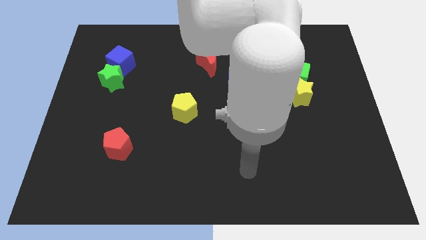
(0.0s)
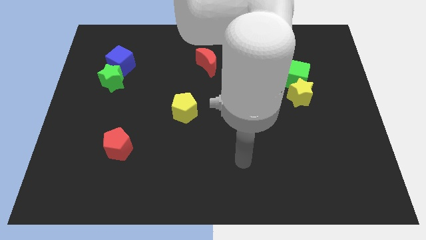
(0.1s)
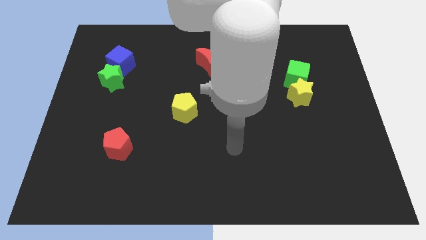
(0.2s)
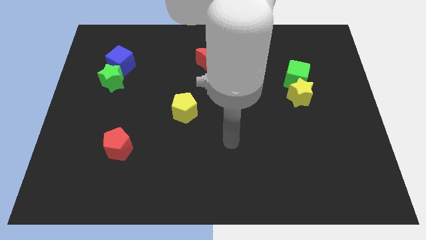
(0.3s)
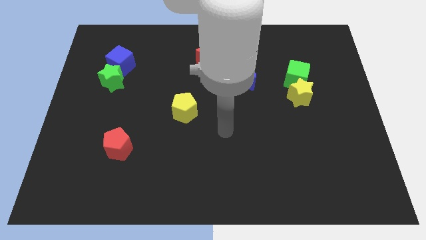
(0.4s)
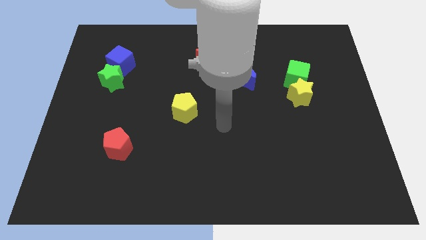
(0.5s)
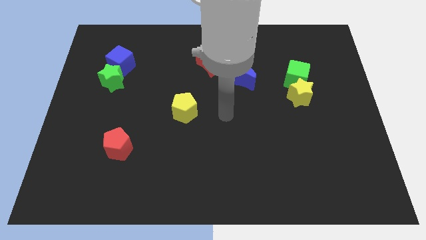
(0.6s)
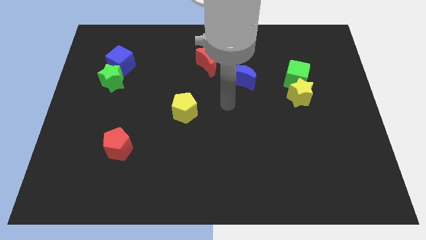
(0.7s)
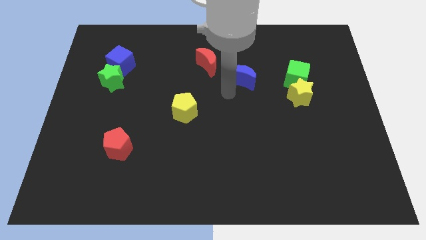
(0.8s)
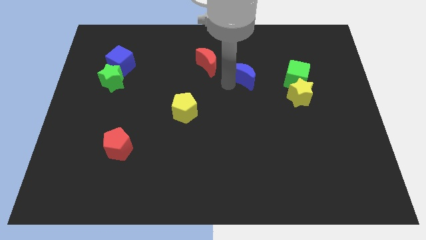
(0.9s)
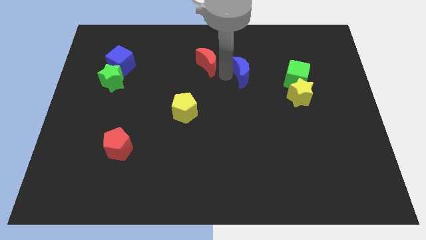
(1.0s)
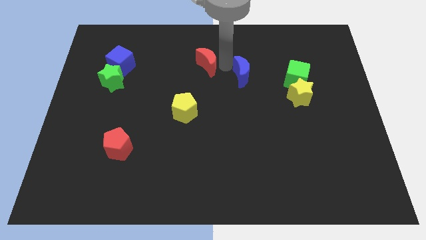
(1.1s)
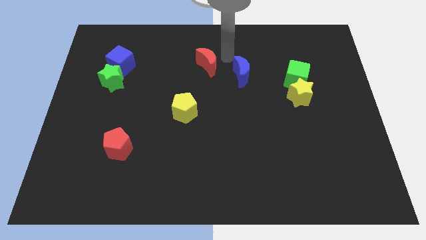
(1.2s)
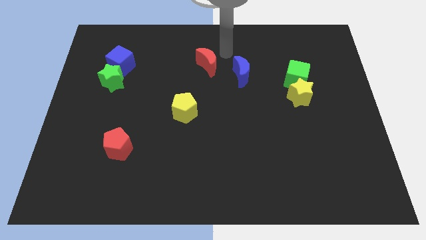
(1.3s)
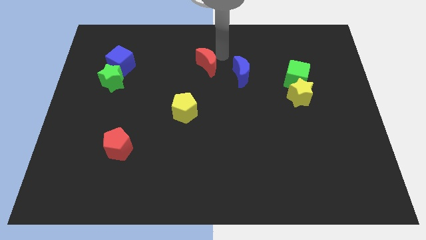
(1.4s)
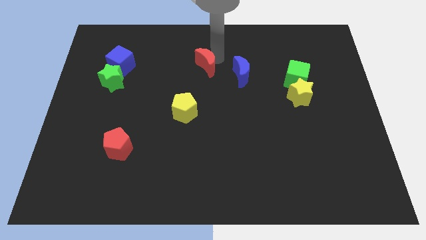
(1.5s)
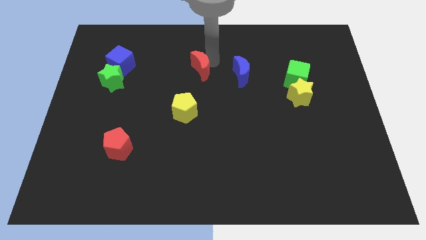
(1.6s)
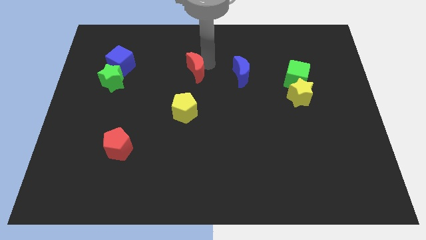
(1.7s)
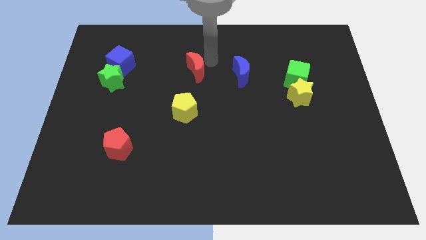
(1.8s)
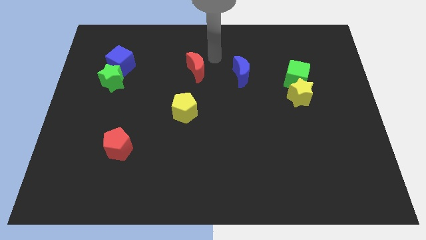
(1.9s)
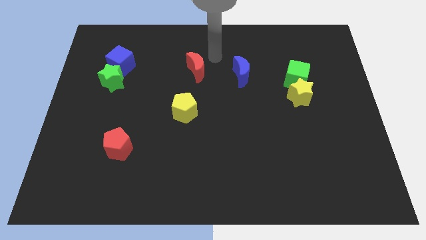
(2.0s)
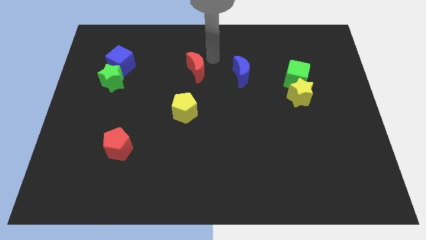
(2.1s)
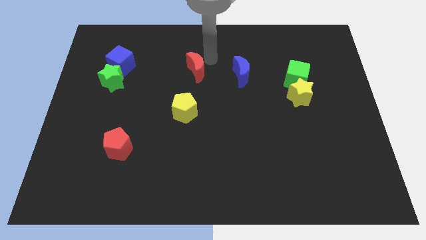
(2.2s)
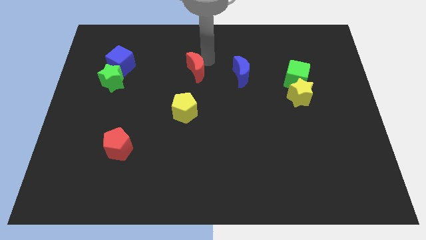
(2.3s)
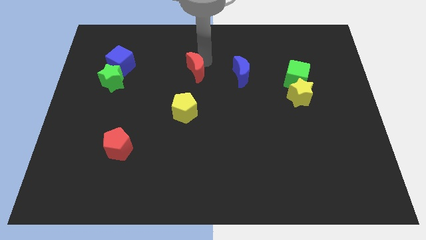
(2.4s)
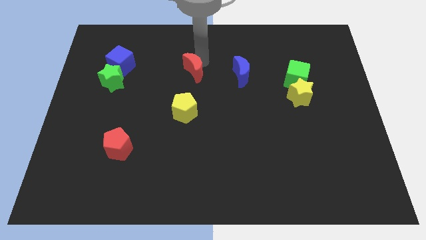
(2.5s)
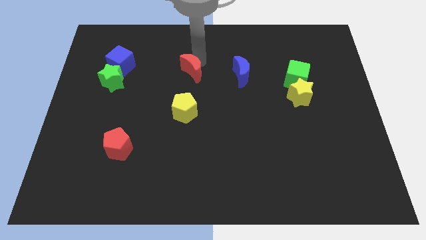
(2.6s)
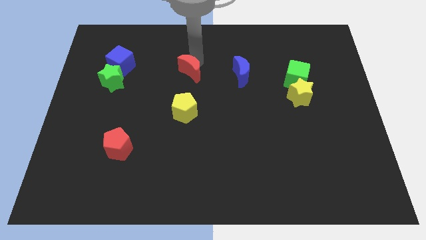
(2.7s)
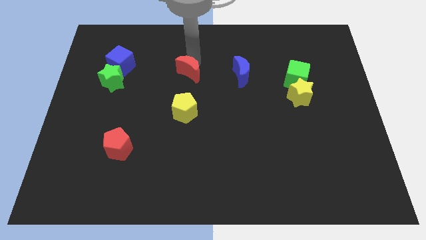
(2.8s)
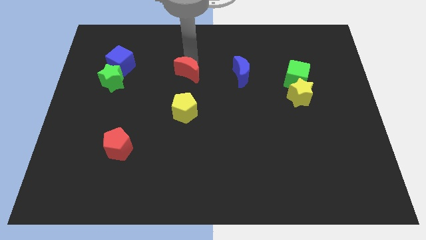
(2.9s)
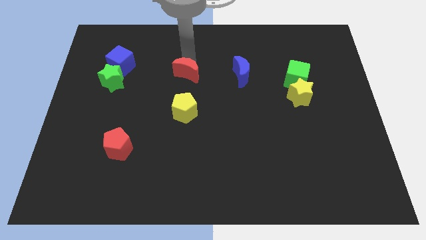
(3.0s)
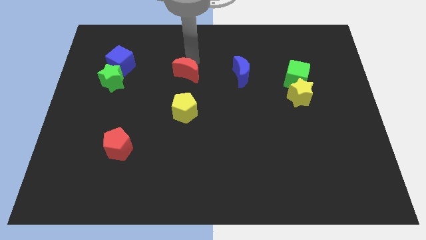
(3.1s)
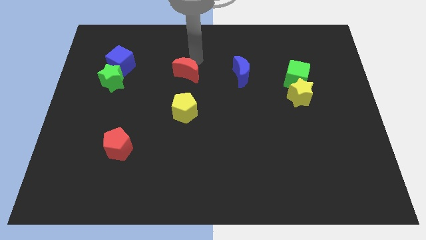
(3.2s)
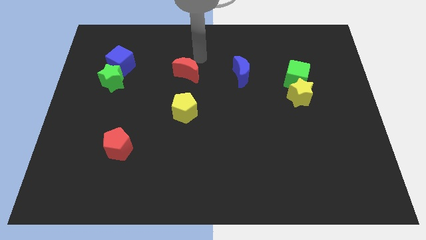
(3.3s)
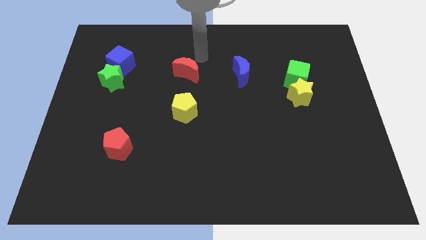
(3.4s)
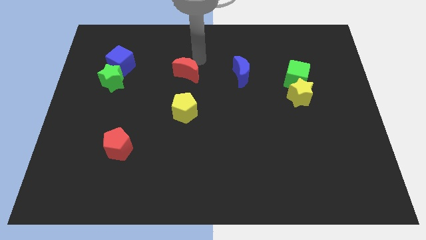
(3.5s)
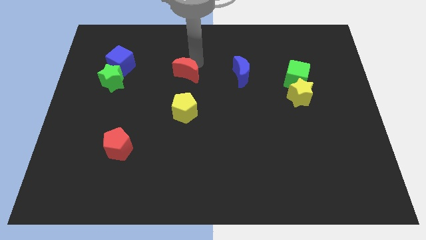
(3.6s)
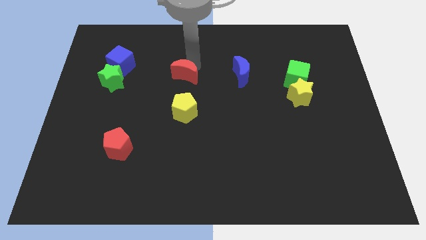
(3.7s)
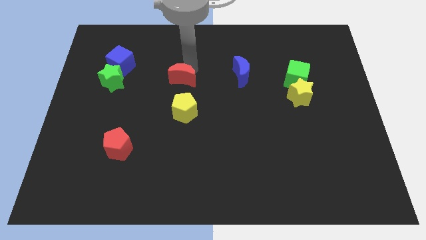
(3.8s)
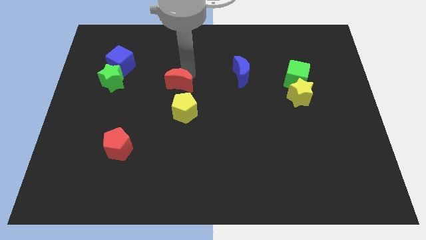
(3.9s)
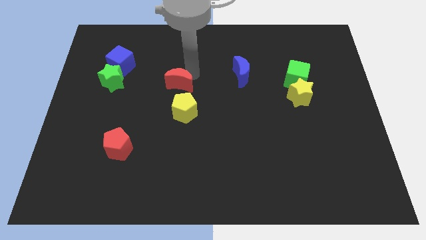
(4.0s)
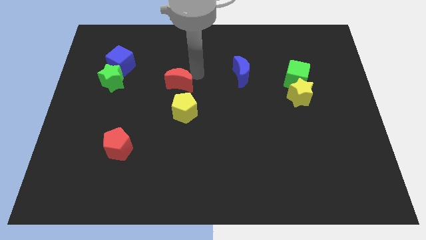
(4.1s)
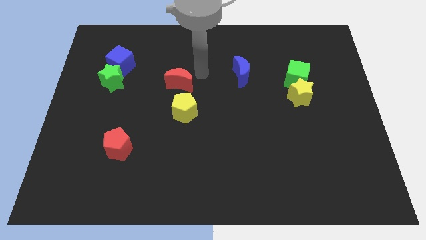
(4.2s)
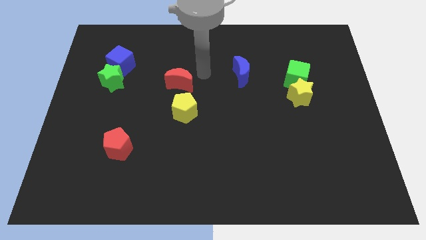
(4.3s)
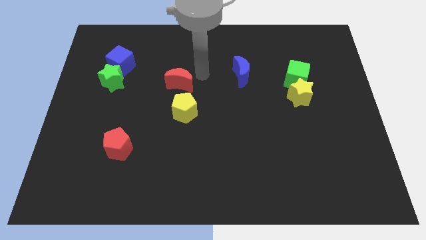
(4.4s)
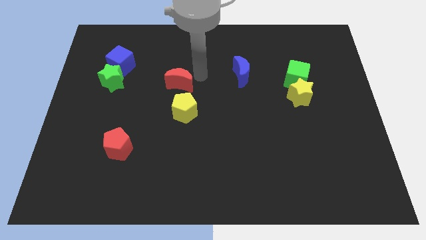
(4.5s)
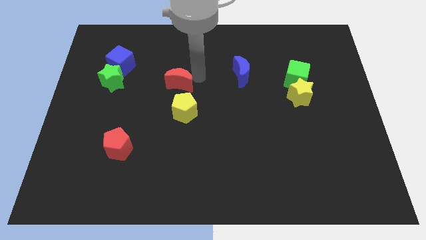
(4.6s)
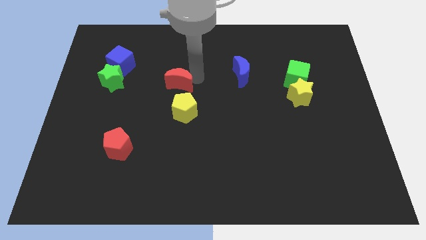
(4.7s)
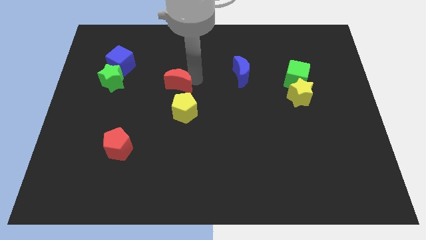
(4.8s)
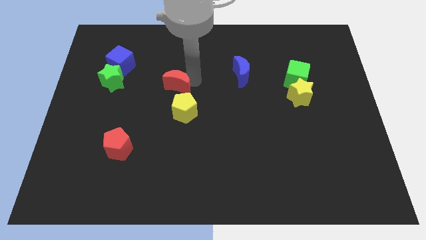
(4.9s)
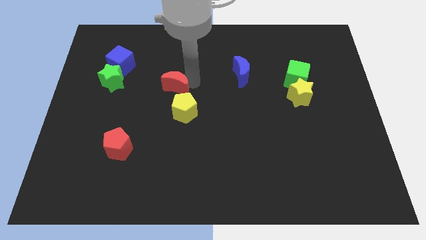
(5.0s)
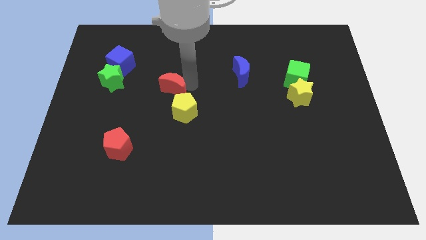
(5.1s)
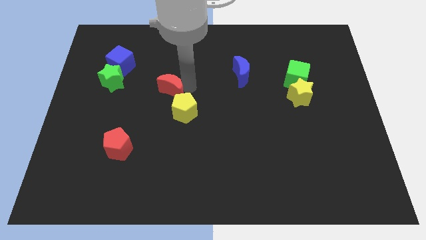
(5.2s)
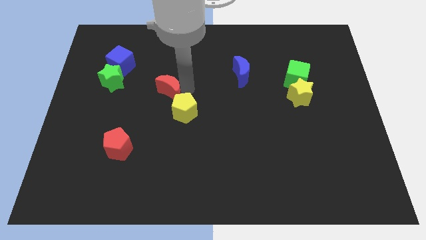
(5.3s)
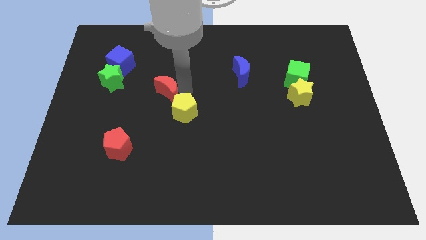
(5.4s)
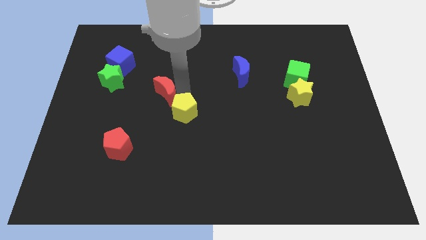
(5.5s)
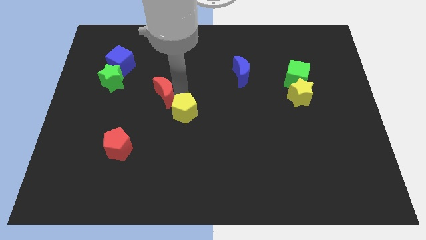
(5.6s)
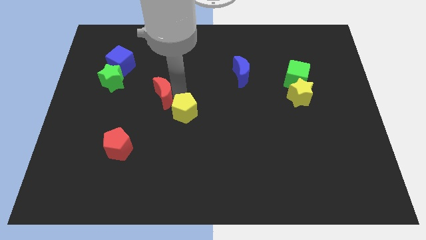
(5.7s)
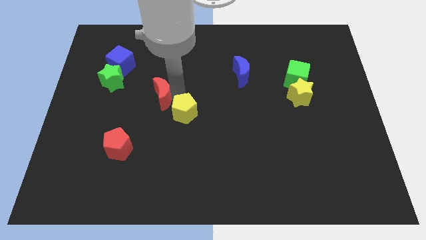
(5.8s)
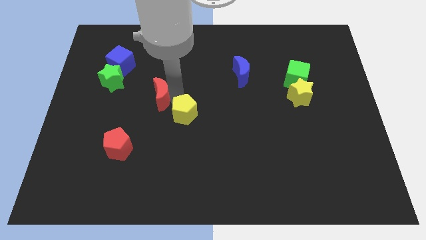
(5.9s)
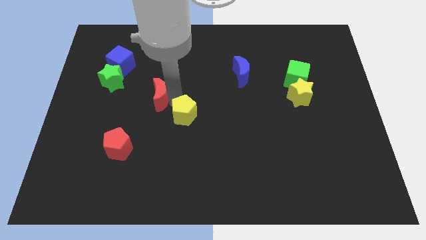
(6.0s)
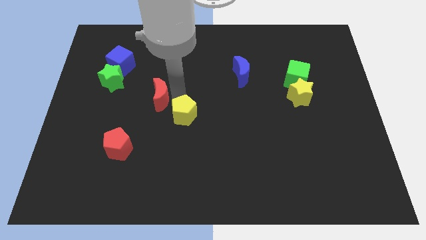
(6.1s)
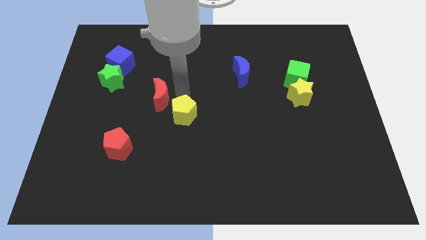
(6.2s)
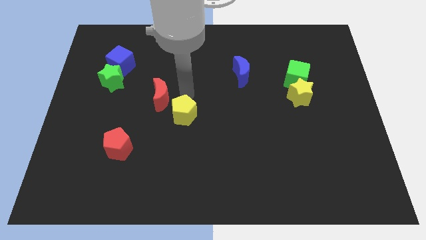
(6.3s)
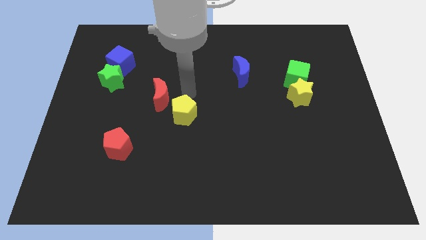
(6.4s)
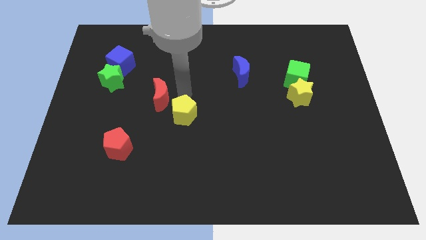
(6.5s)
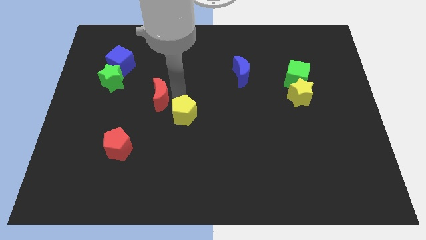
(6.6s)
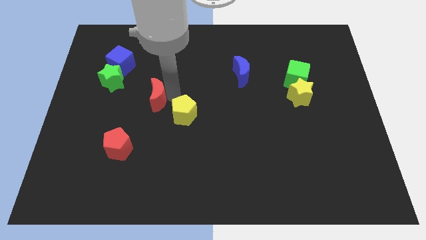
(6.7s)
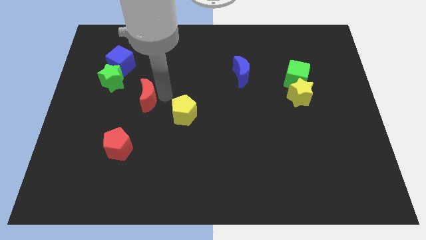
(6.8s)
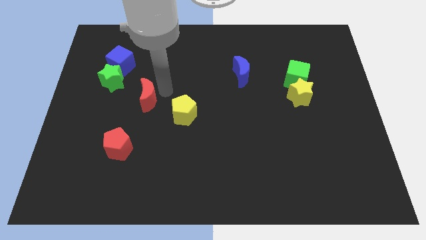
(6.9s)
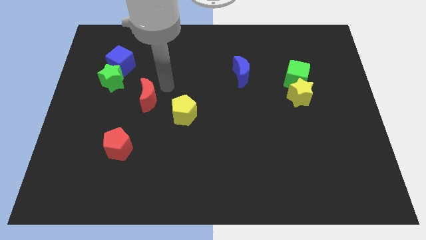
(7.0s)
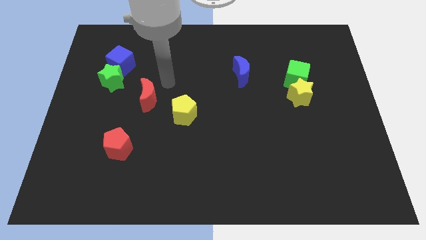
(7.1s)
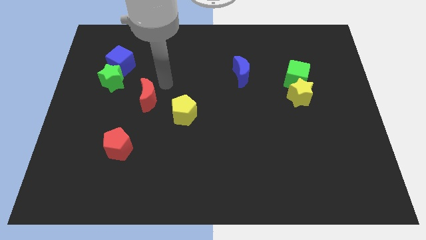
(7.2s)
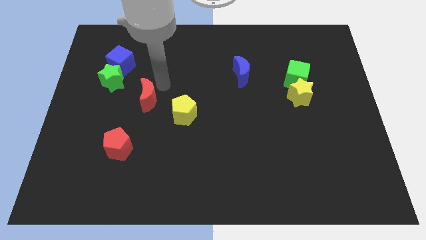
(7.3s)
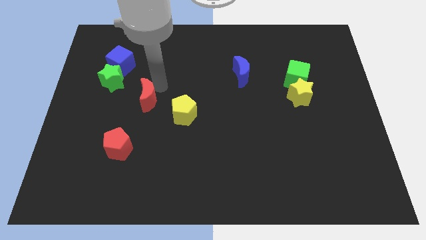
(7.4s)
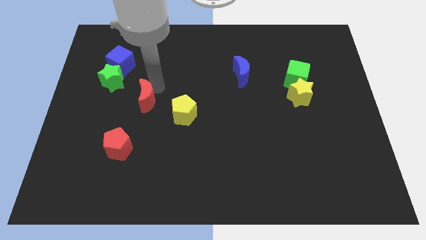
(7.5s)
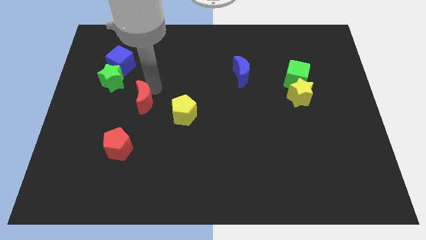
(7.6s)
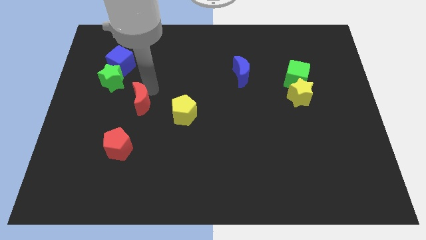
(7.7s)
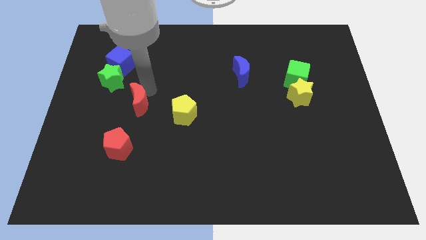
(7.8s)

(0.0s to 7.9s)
slide the red moon downwards and then left

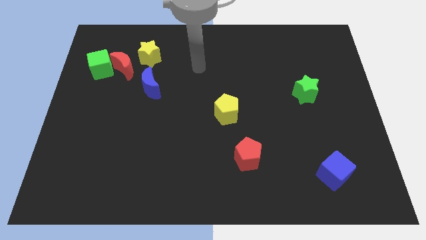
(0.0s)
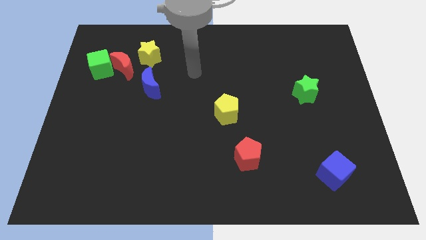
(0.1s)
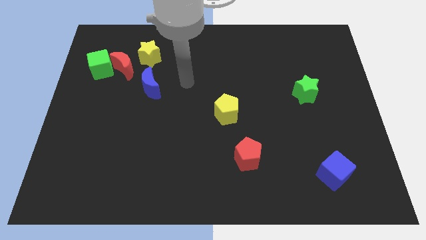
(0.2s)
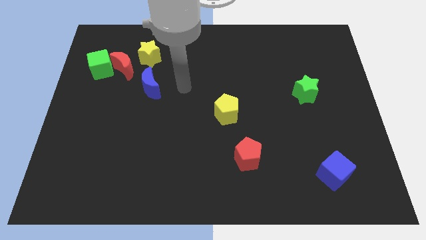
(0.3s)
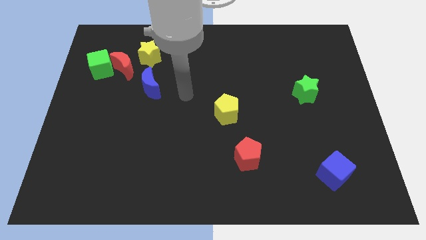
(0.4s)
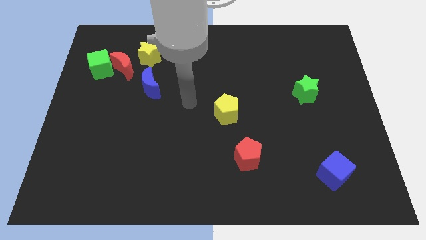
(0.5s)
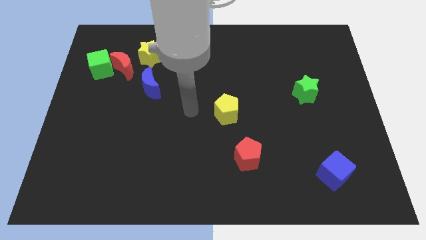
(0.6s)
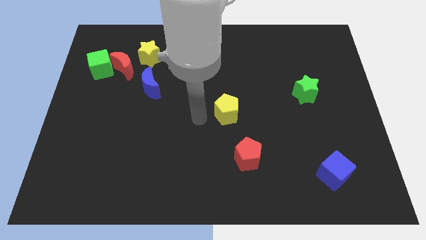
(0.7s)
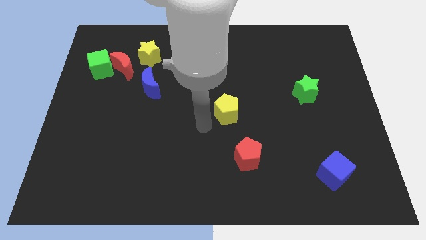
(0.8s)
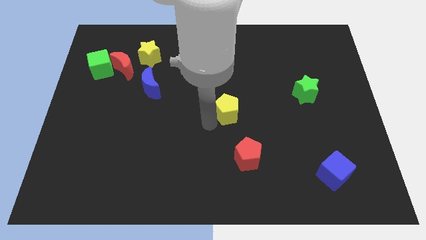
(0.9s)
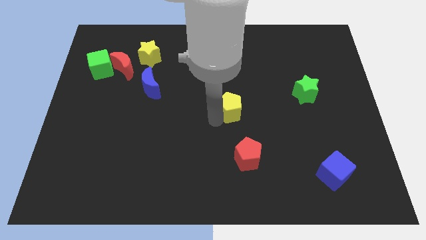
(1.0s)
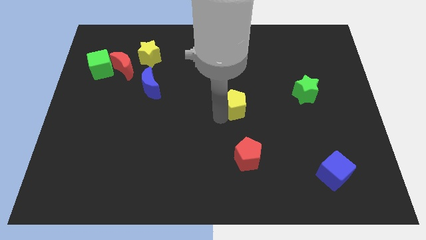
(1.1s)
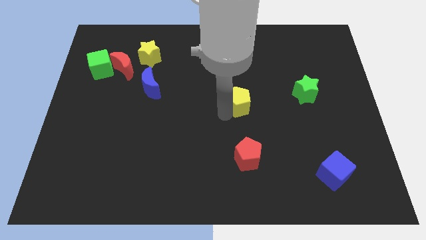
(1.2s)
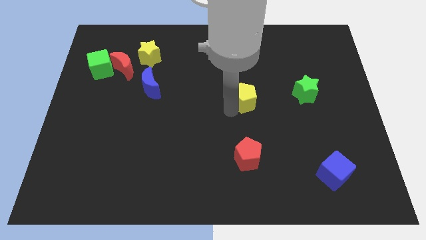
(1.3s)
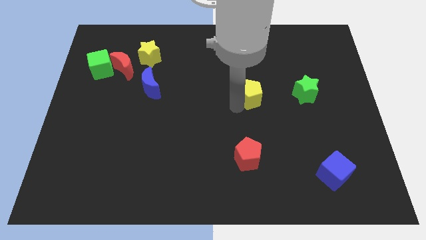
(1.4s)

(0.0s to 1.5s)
slightly move the yellow pentagon diagonally up and to the right
